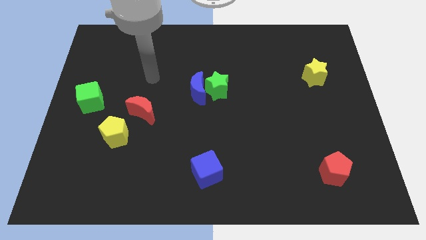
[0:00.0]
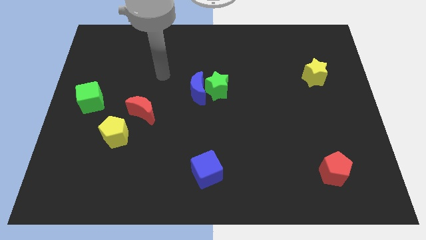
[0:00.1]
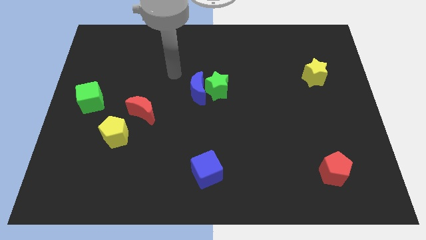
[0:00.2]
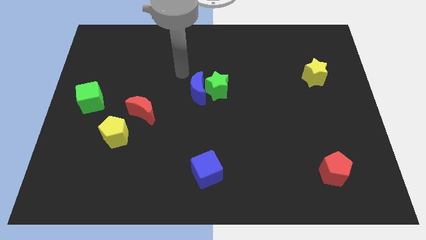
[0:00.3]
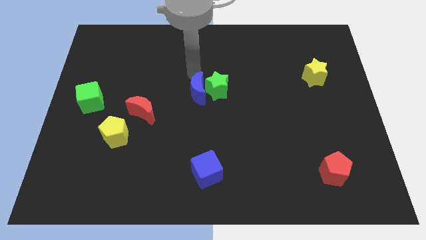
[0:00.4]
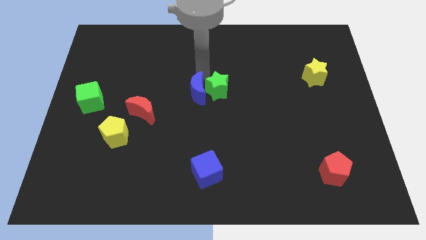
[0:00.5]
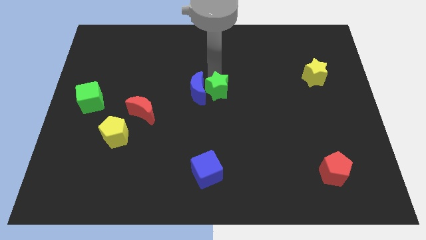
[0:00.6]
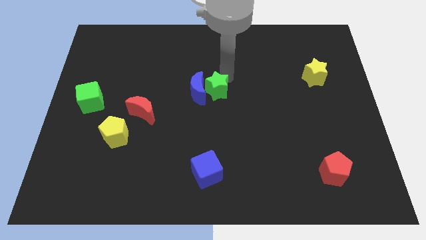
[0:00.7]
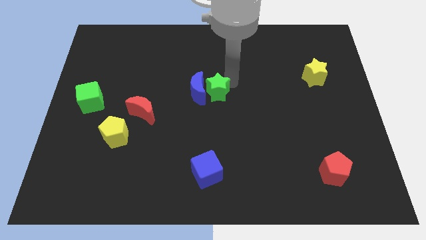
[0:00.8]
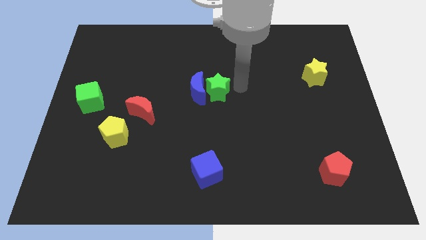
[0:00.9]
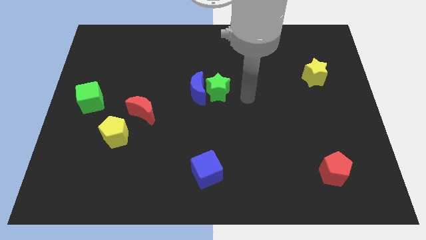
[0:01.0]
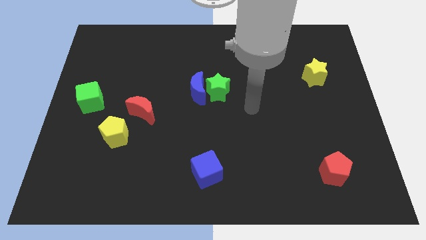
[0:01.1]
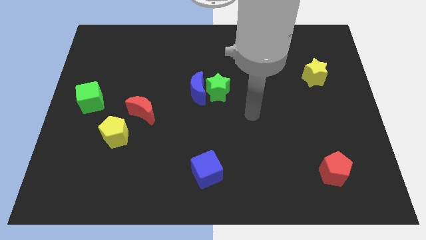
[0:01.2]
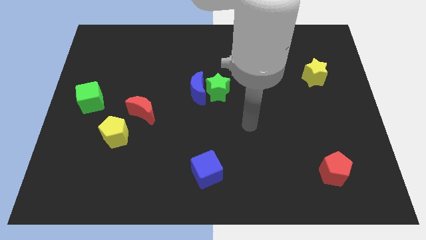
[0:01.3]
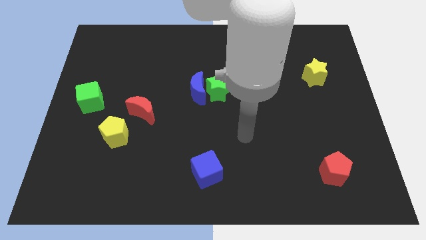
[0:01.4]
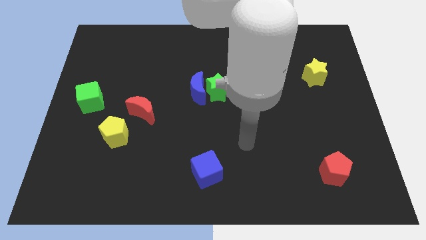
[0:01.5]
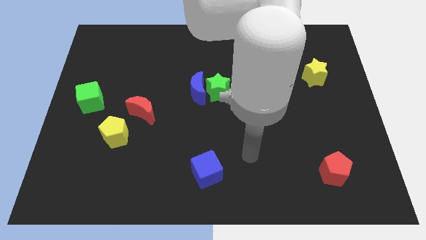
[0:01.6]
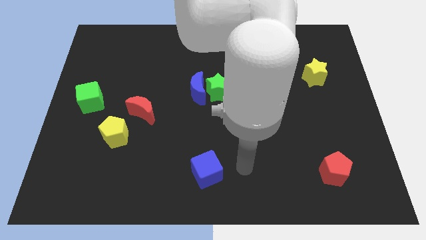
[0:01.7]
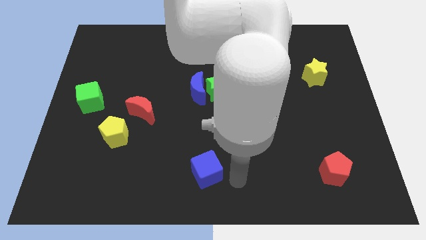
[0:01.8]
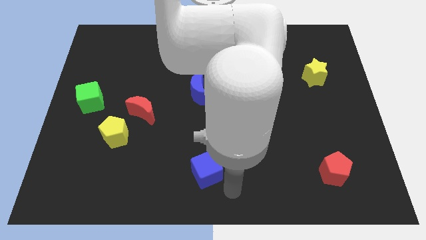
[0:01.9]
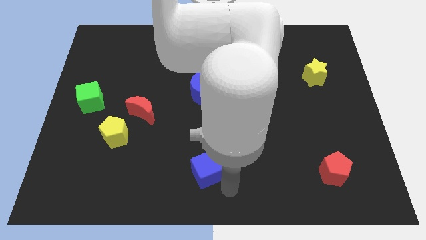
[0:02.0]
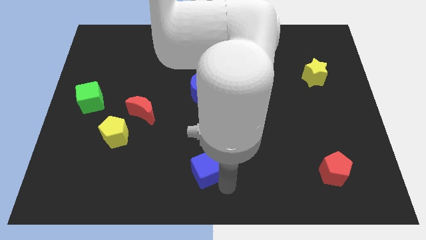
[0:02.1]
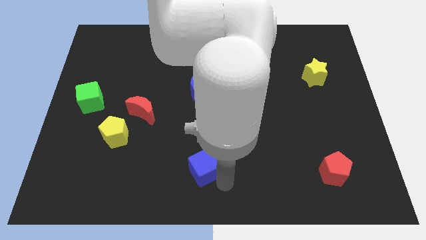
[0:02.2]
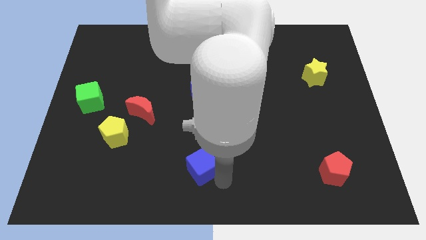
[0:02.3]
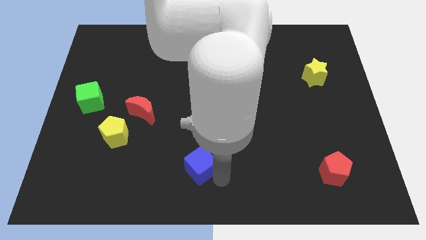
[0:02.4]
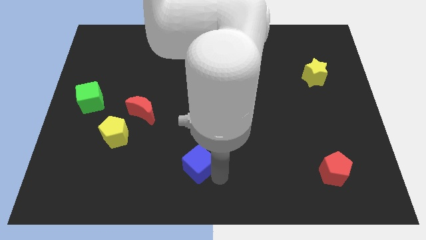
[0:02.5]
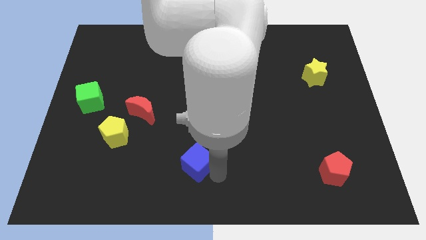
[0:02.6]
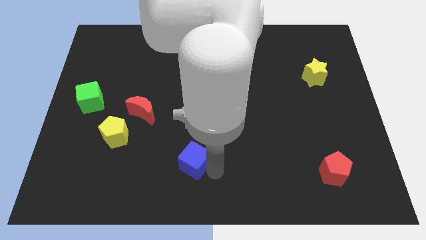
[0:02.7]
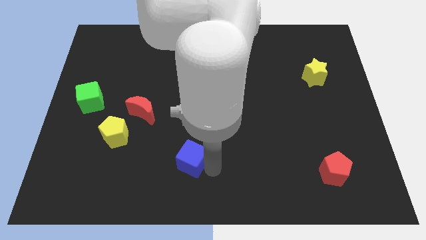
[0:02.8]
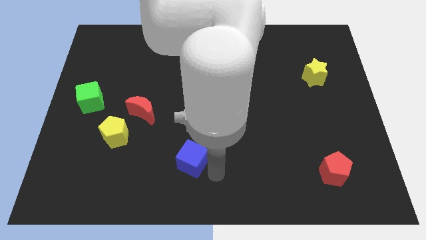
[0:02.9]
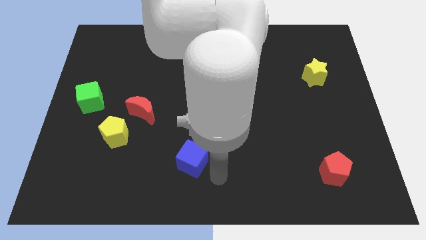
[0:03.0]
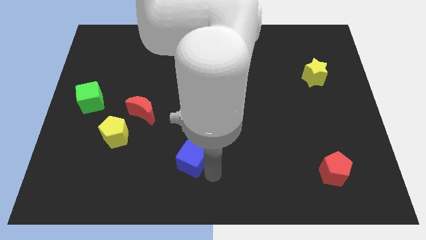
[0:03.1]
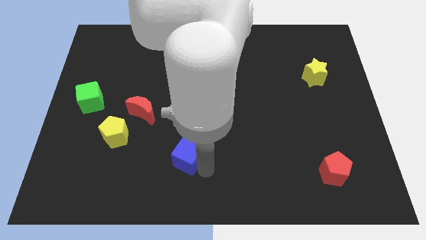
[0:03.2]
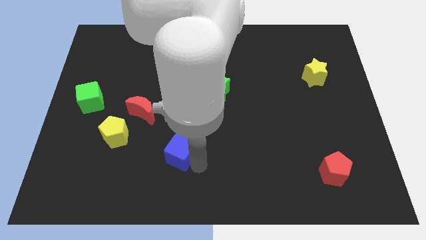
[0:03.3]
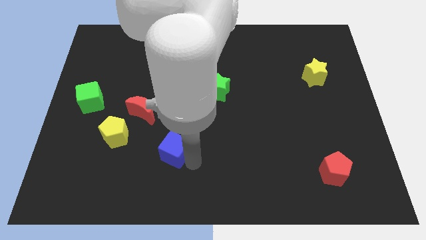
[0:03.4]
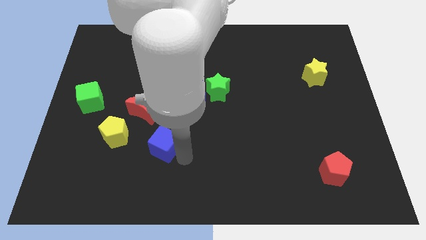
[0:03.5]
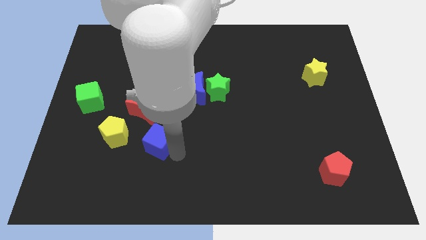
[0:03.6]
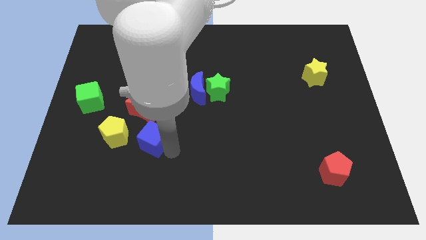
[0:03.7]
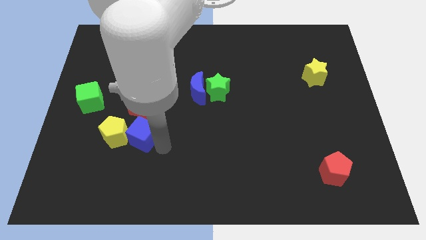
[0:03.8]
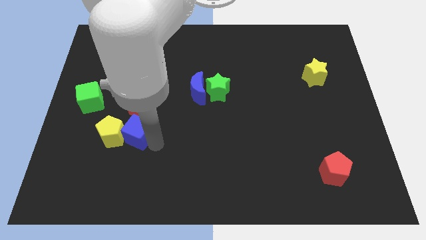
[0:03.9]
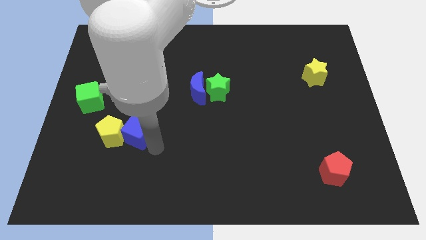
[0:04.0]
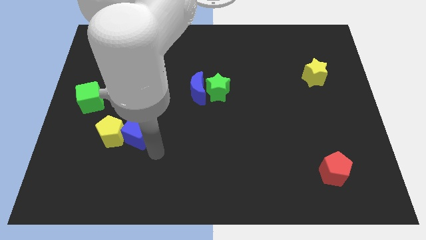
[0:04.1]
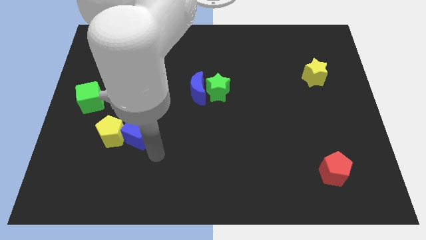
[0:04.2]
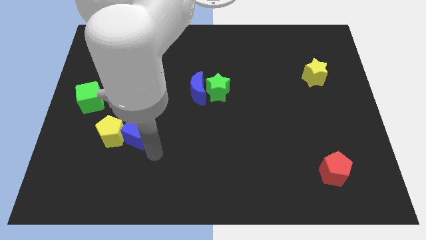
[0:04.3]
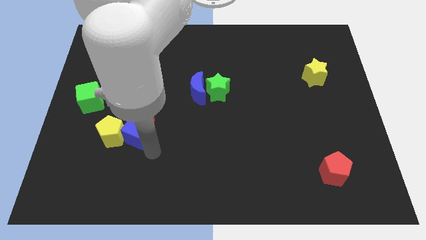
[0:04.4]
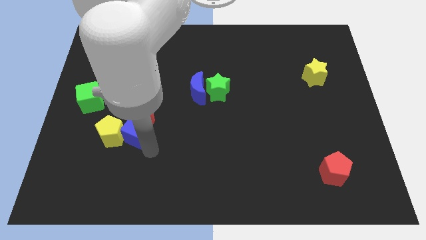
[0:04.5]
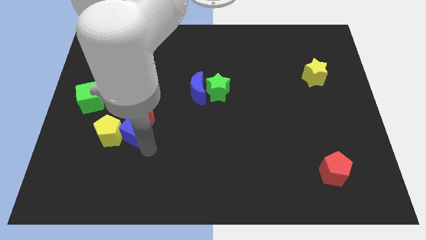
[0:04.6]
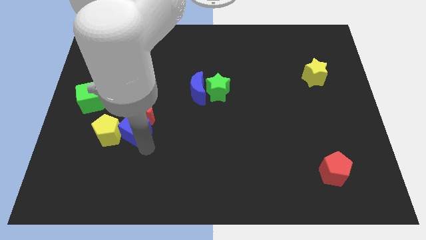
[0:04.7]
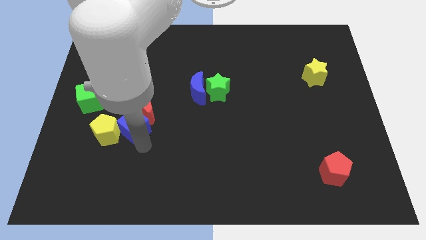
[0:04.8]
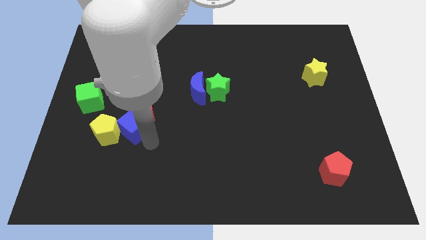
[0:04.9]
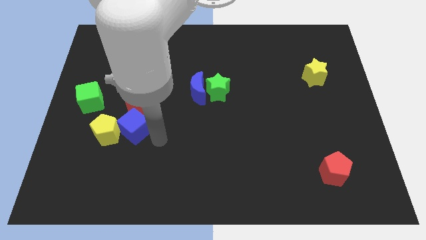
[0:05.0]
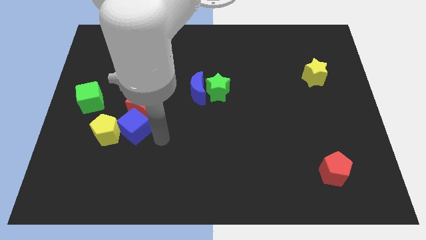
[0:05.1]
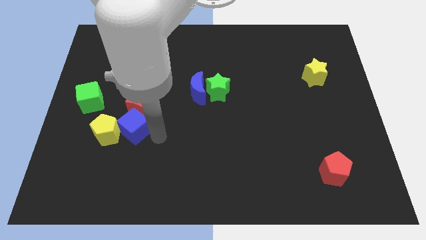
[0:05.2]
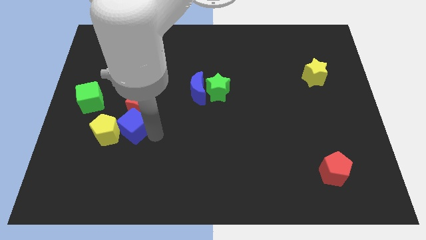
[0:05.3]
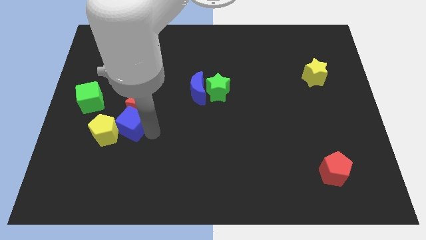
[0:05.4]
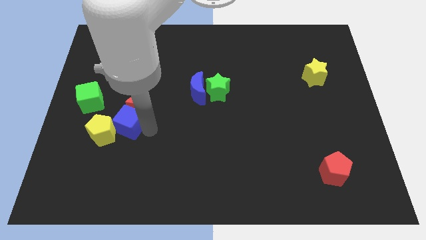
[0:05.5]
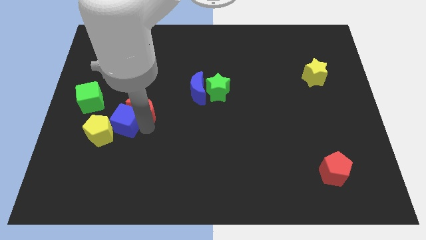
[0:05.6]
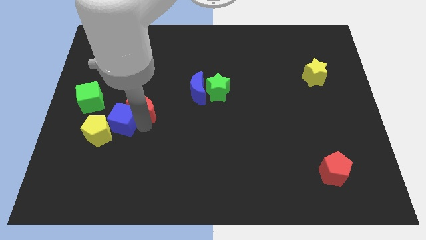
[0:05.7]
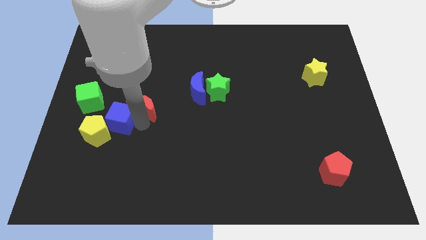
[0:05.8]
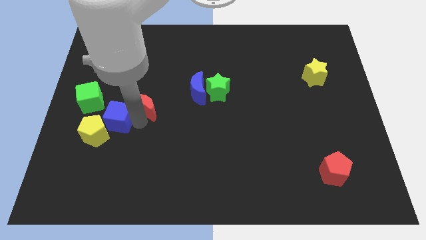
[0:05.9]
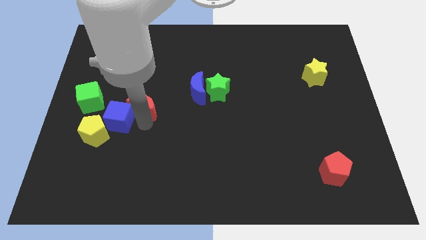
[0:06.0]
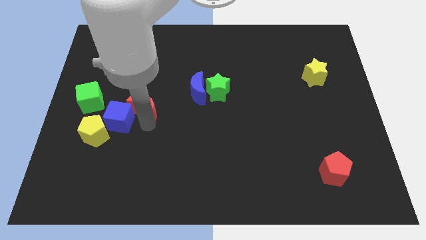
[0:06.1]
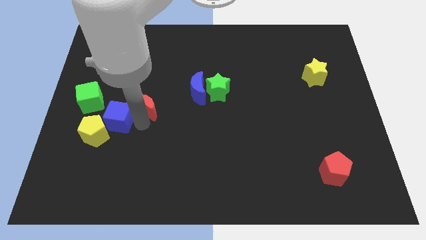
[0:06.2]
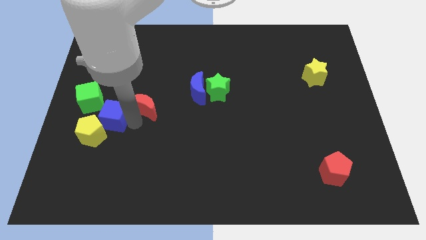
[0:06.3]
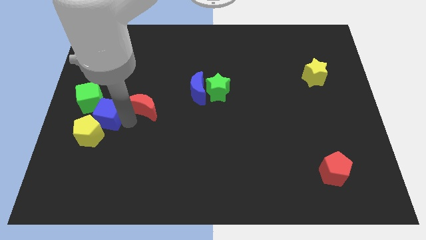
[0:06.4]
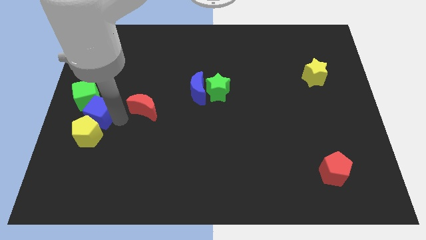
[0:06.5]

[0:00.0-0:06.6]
push the blue cube to the left side of the board
